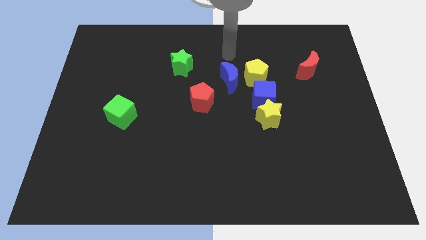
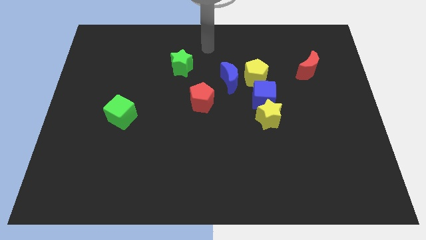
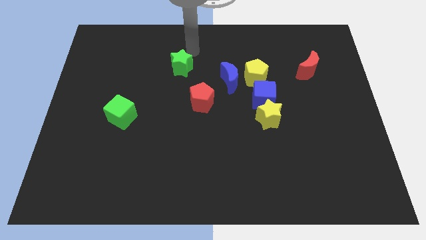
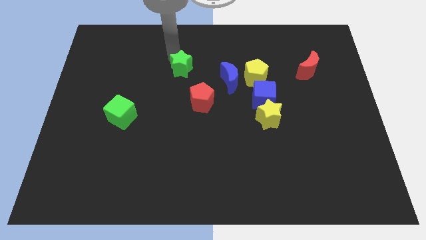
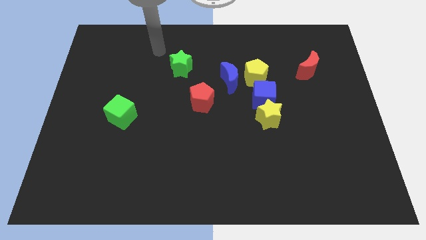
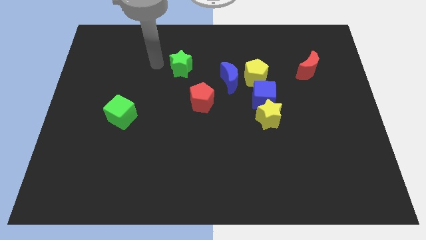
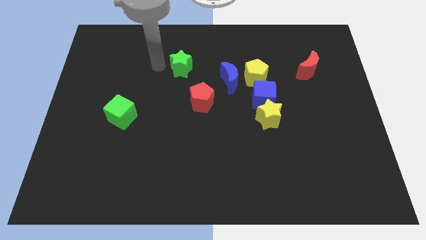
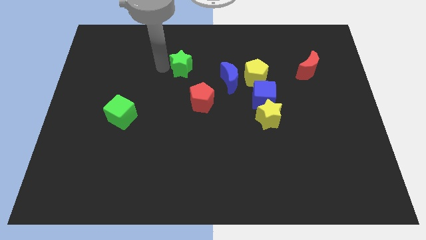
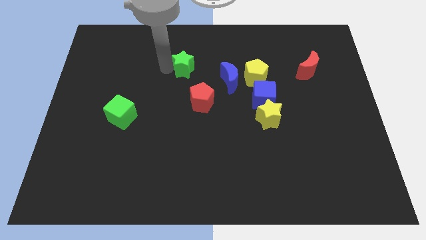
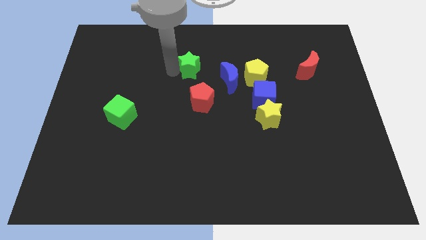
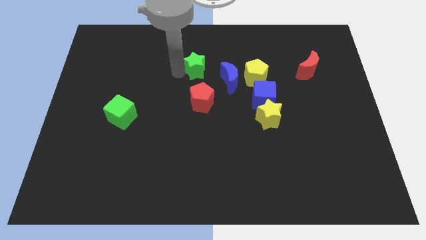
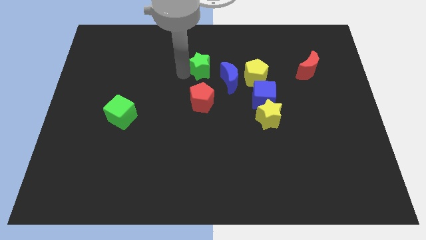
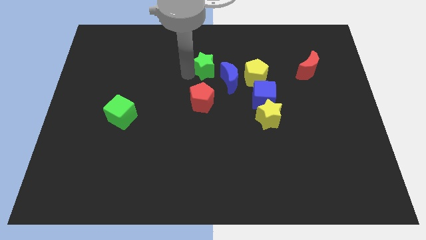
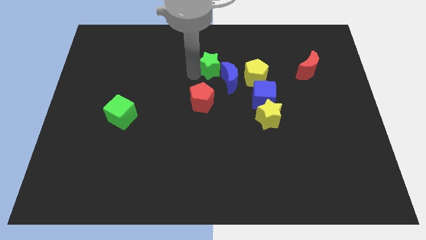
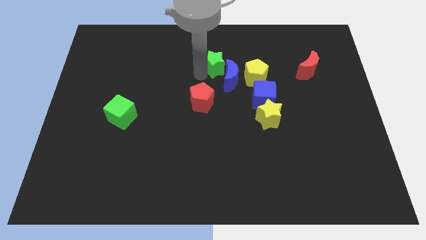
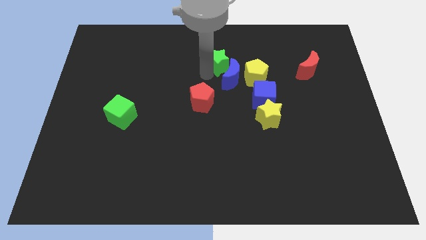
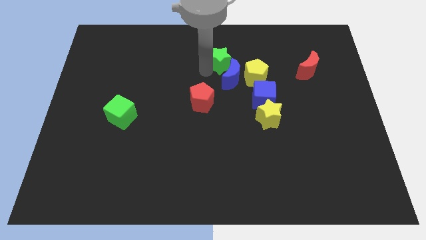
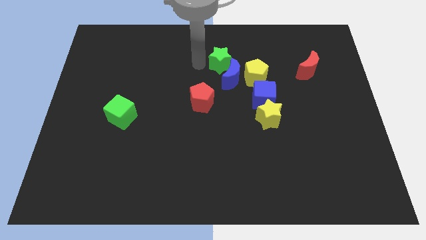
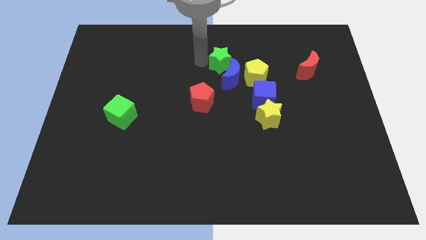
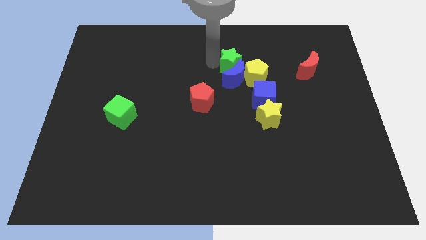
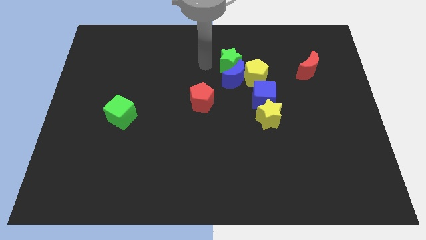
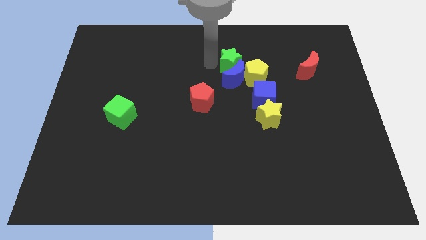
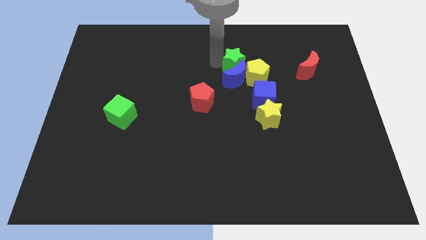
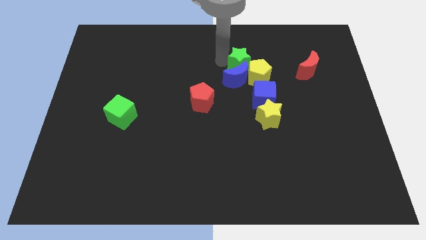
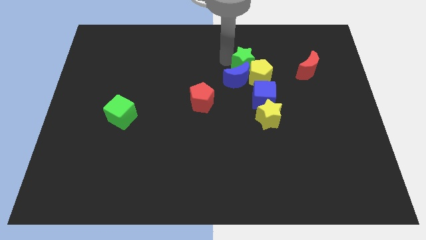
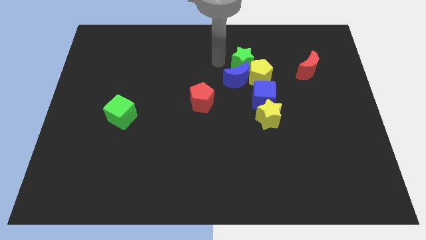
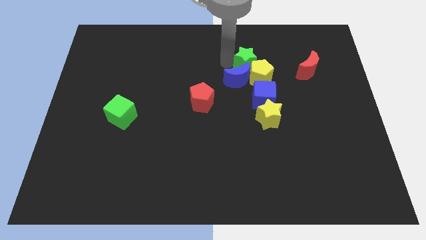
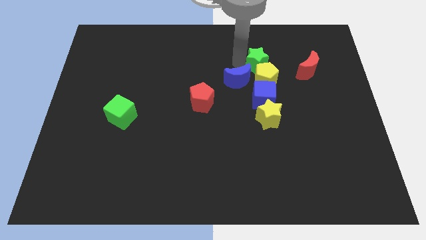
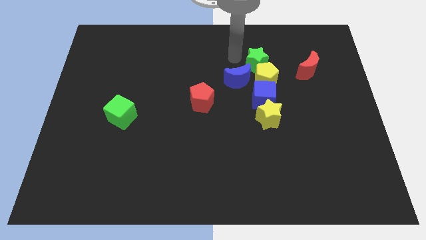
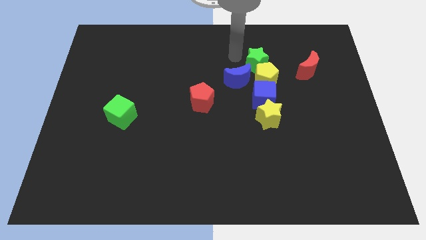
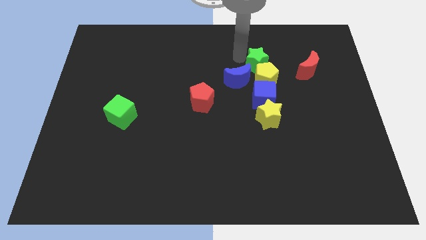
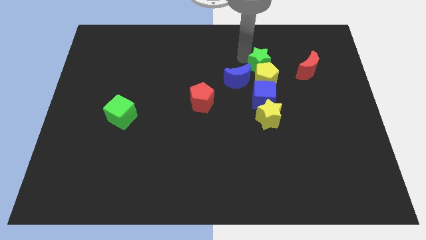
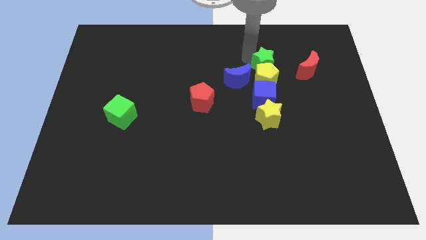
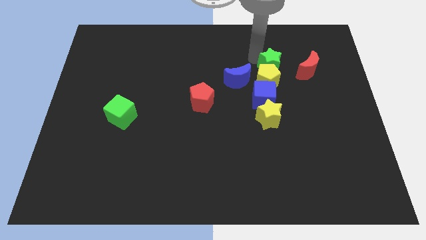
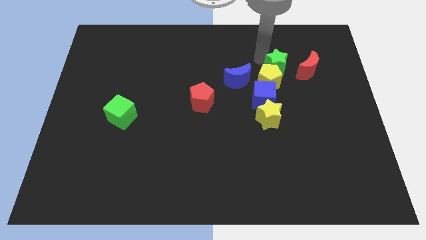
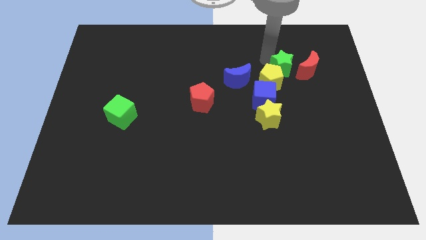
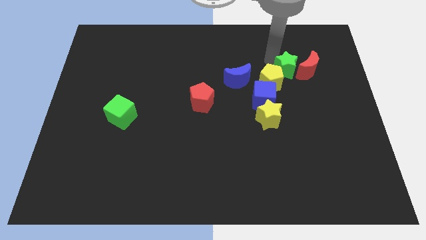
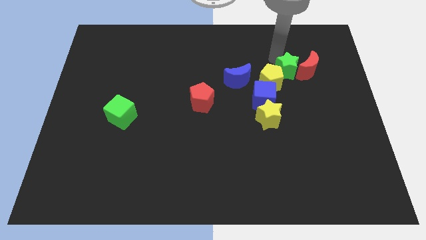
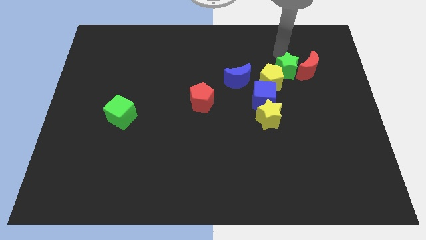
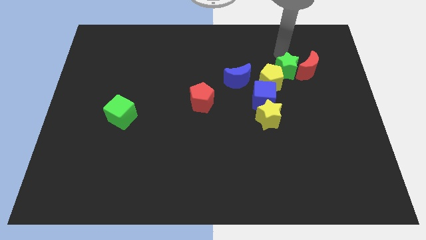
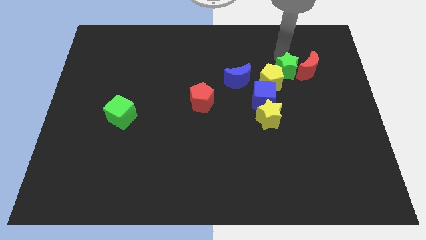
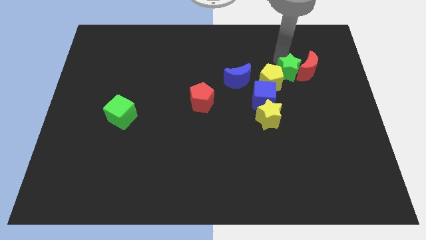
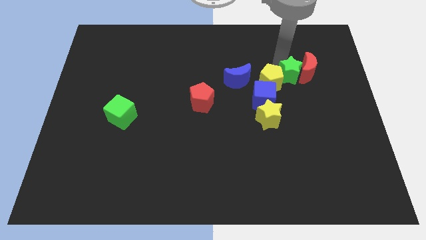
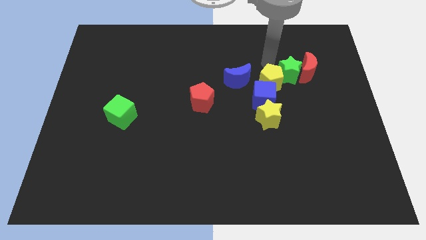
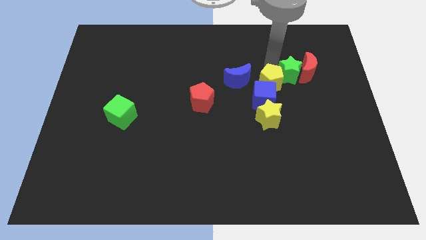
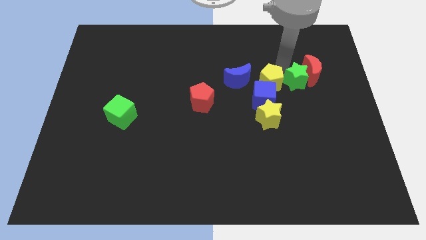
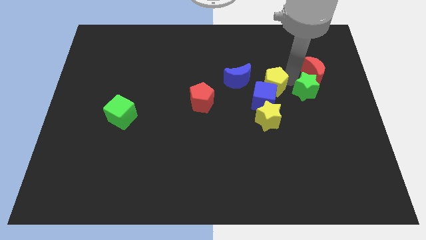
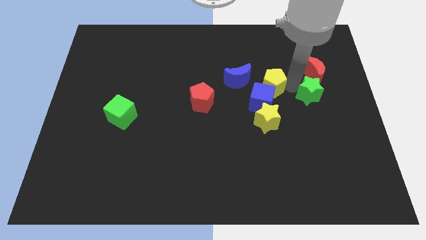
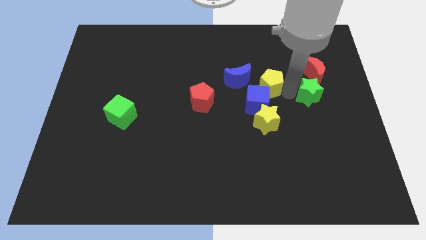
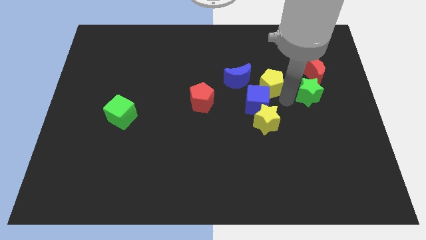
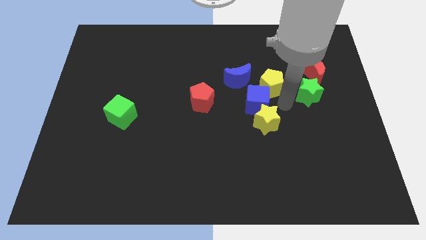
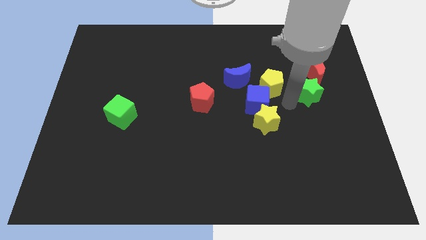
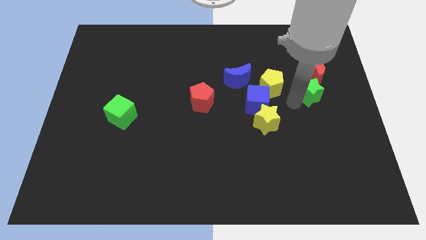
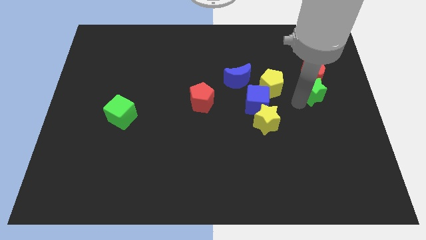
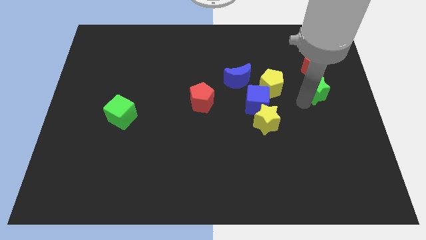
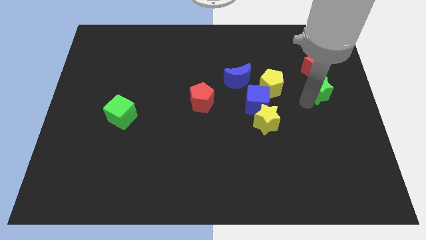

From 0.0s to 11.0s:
move the green star to the center right

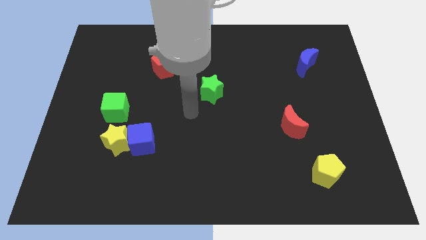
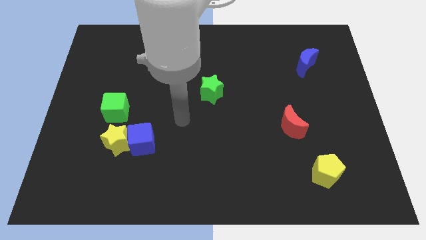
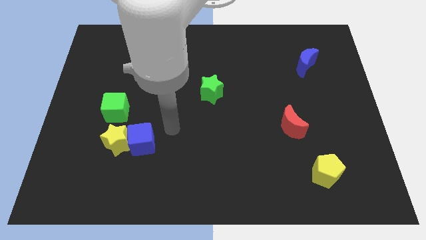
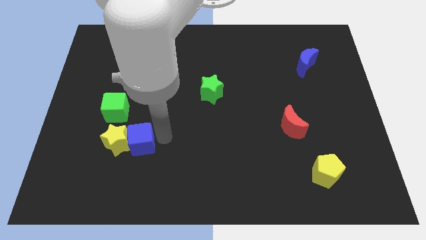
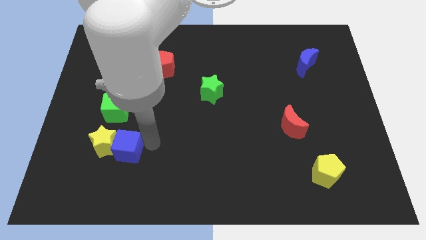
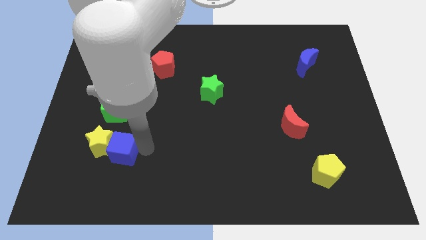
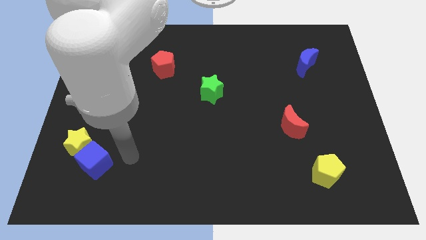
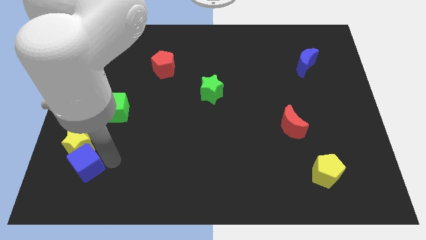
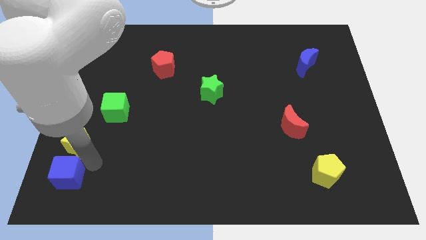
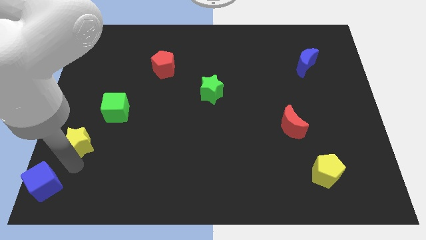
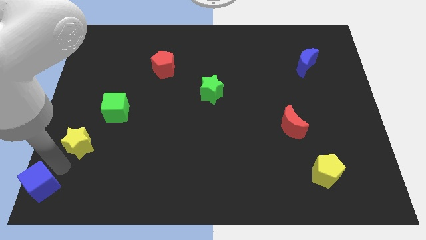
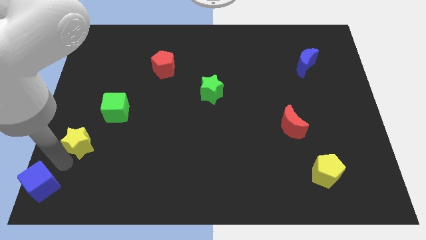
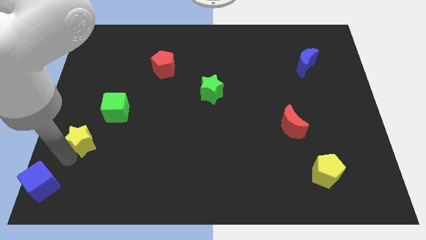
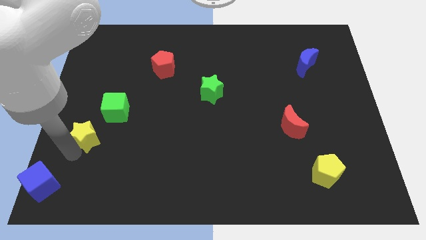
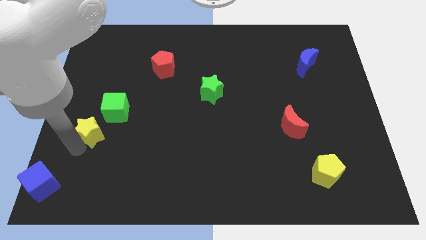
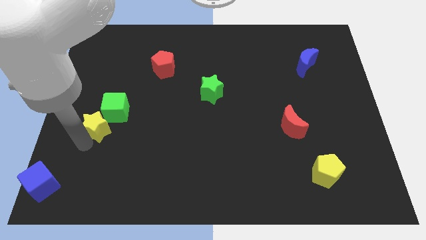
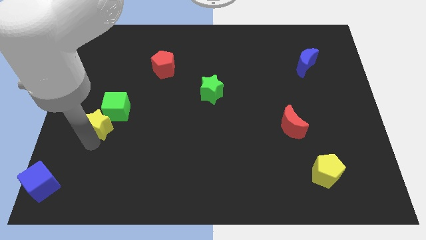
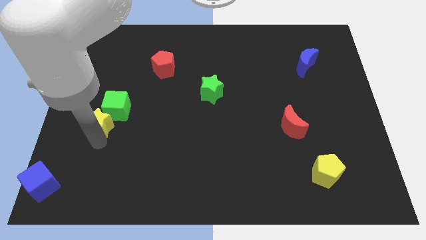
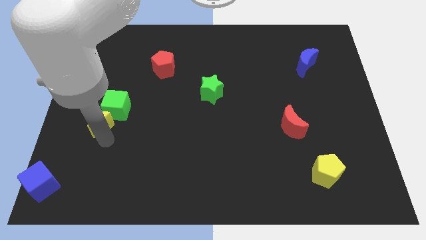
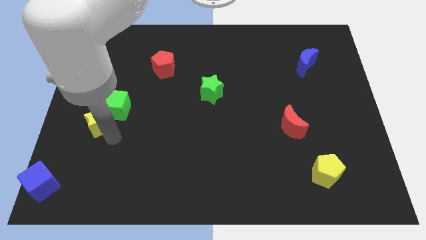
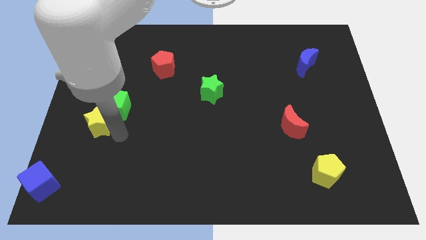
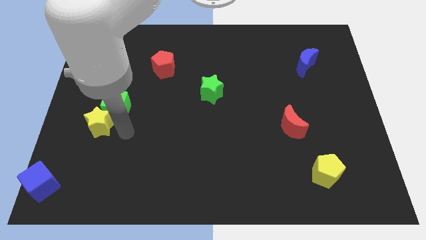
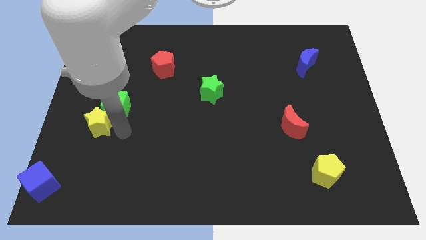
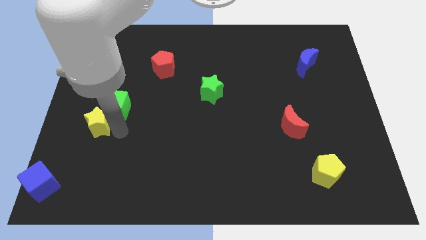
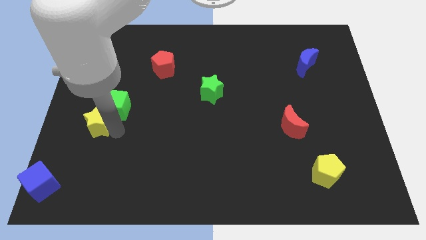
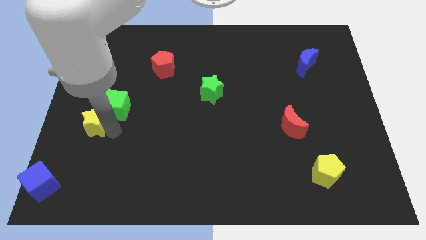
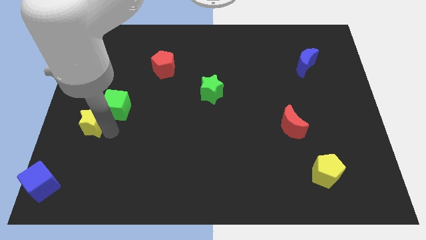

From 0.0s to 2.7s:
slide the yellow star to the left side
